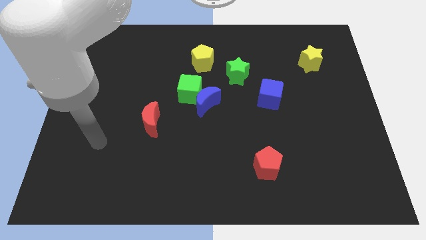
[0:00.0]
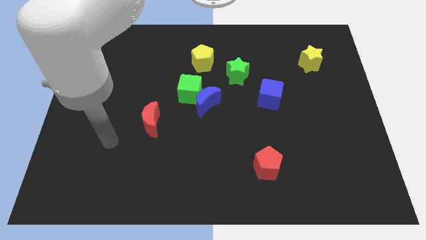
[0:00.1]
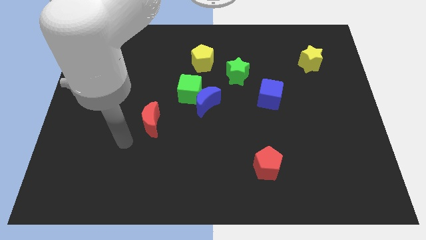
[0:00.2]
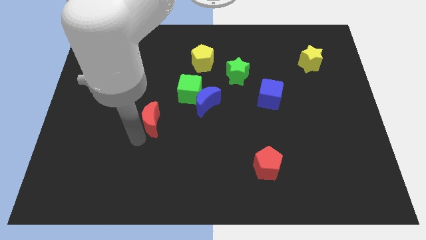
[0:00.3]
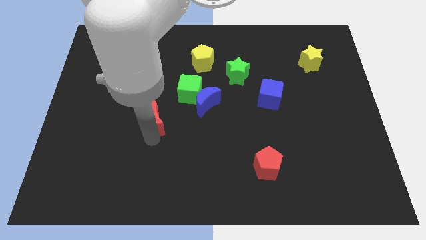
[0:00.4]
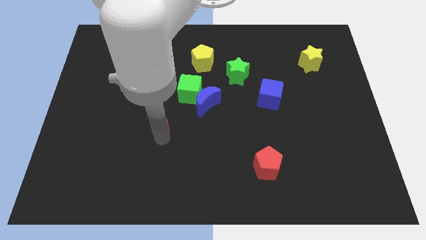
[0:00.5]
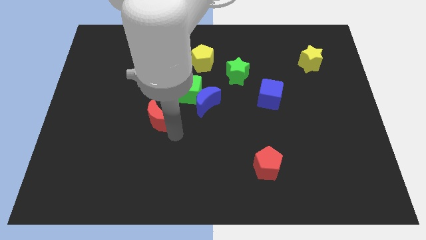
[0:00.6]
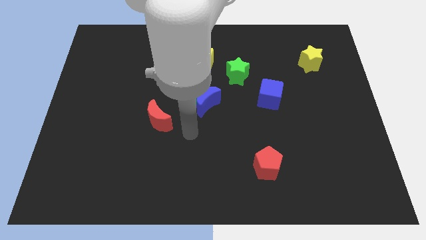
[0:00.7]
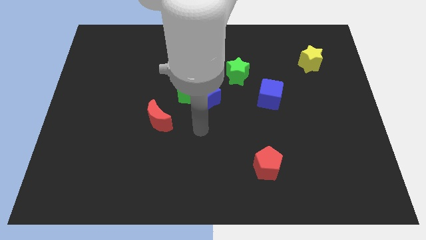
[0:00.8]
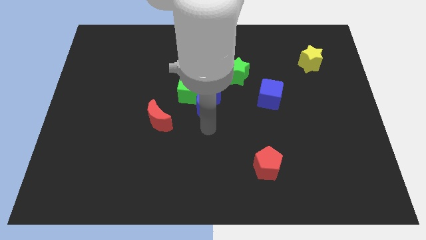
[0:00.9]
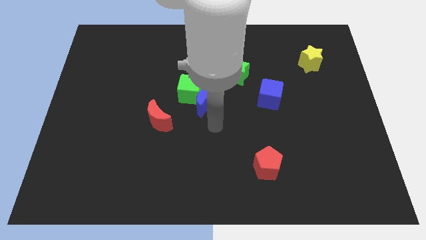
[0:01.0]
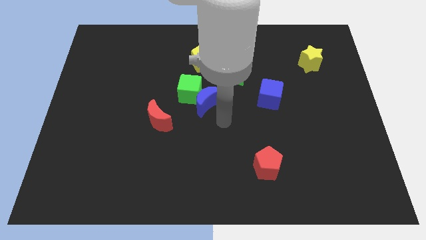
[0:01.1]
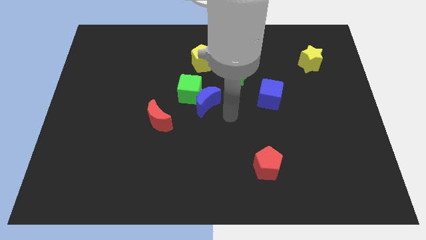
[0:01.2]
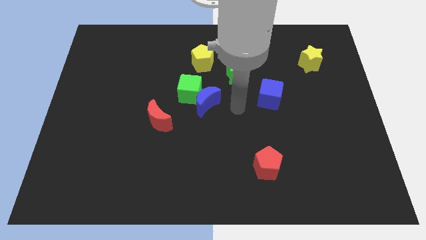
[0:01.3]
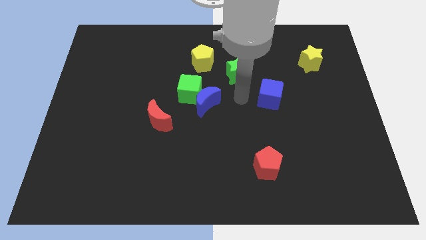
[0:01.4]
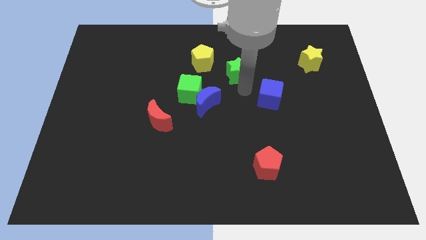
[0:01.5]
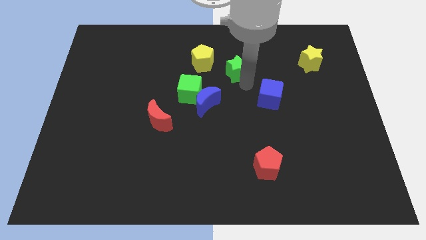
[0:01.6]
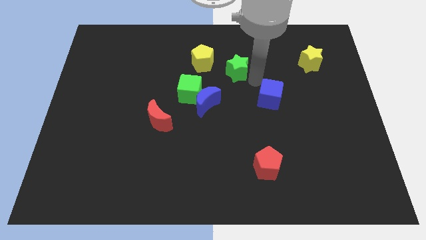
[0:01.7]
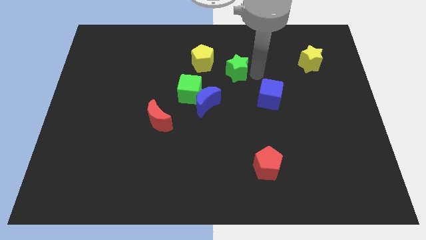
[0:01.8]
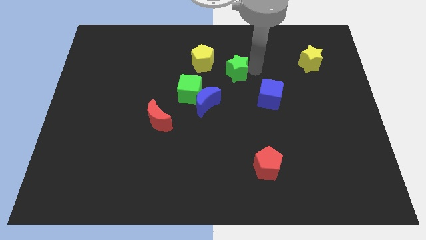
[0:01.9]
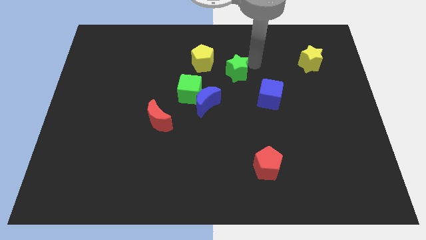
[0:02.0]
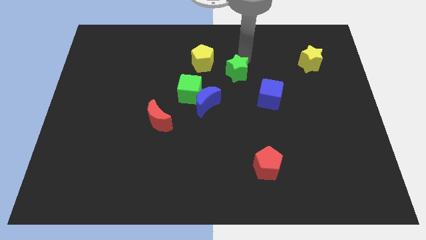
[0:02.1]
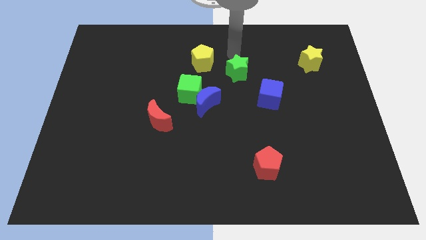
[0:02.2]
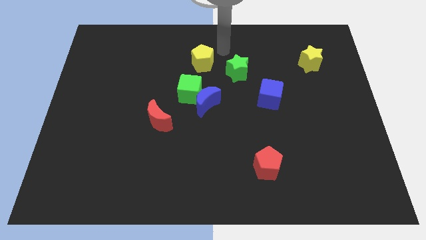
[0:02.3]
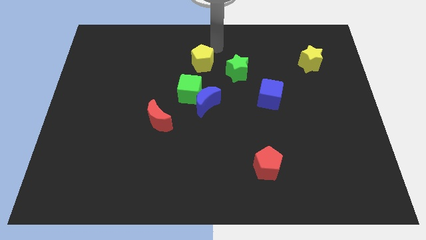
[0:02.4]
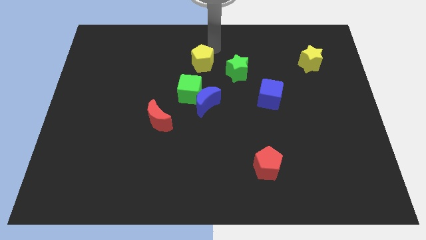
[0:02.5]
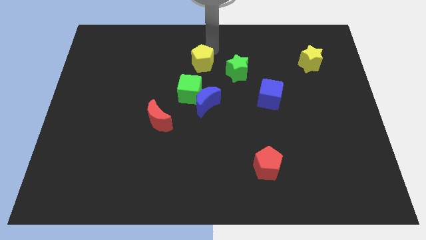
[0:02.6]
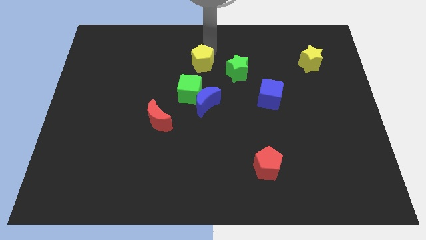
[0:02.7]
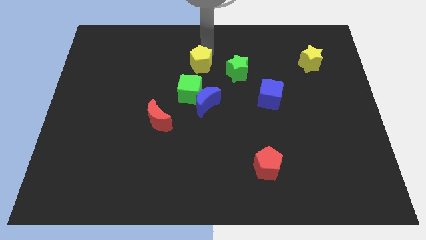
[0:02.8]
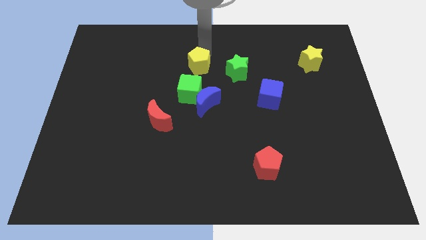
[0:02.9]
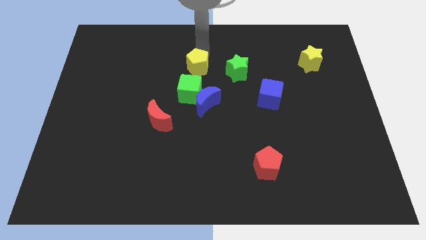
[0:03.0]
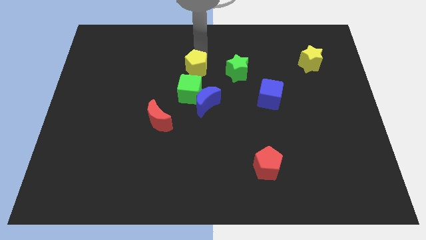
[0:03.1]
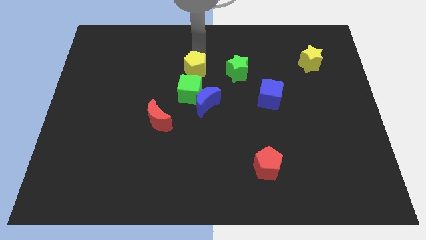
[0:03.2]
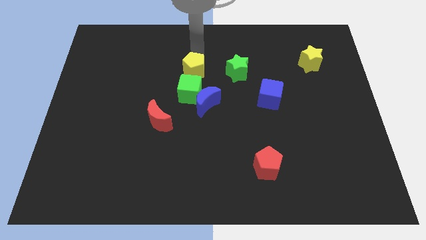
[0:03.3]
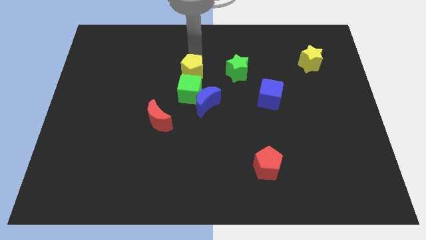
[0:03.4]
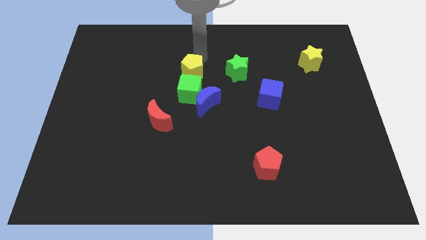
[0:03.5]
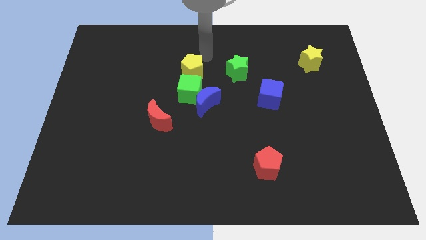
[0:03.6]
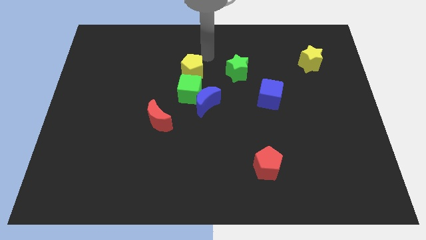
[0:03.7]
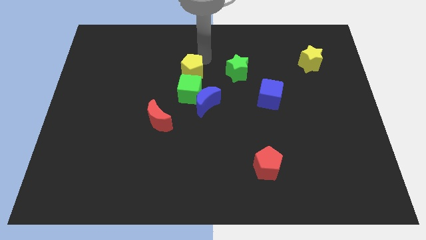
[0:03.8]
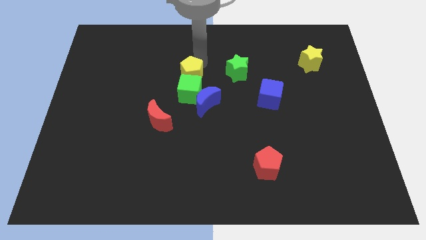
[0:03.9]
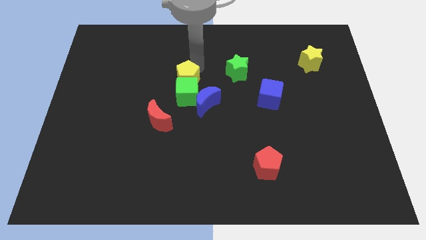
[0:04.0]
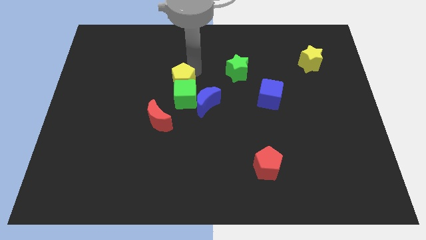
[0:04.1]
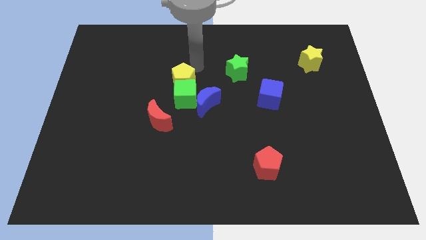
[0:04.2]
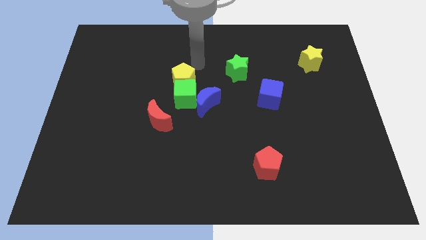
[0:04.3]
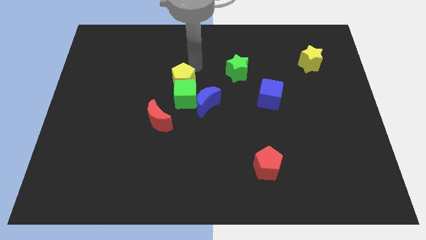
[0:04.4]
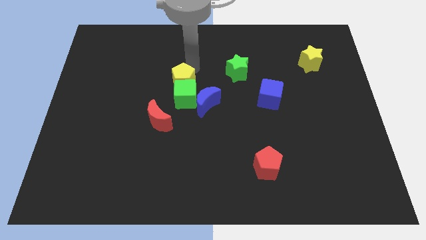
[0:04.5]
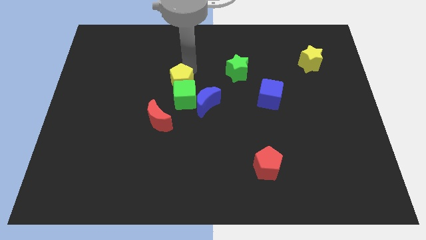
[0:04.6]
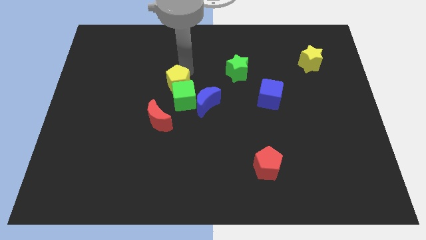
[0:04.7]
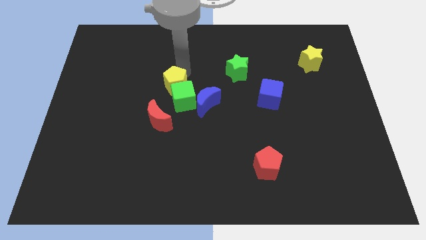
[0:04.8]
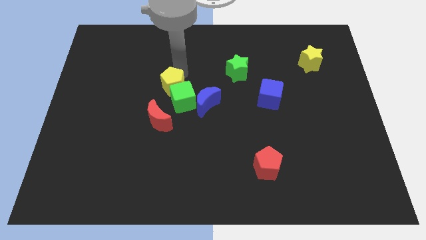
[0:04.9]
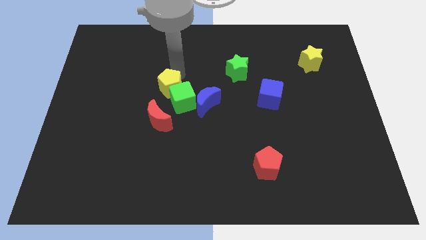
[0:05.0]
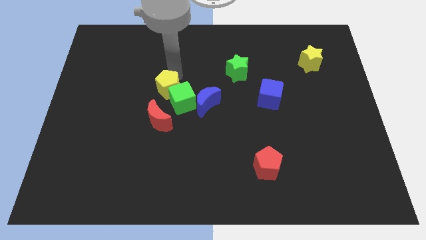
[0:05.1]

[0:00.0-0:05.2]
move the yellow pentagon to the left side of the blue moon
